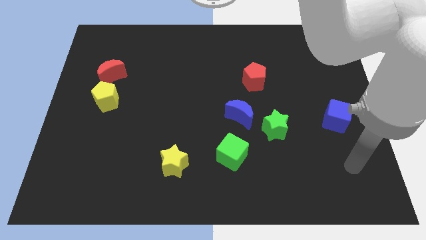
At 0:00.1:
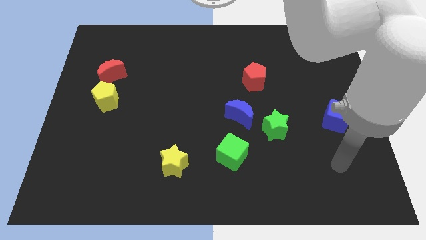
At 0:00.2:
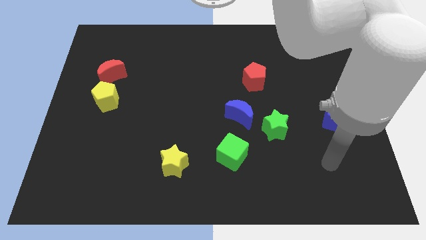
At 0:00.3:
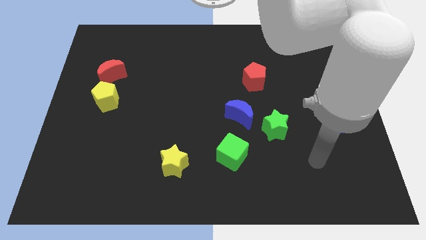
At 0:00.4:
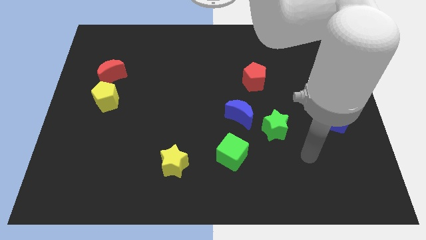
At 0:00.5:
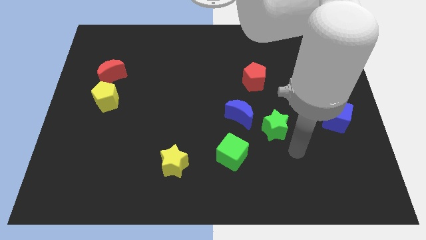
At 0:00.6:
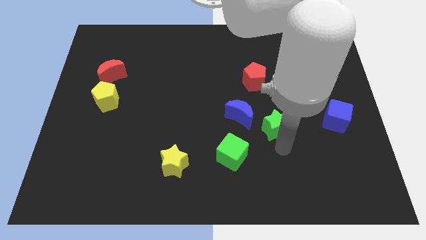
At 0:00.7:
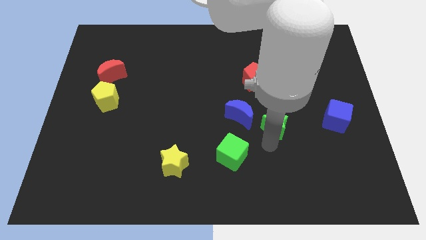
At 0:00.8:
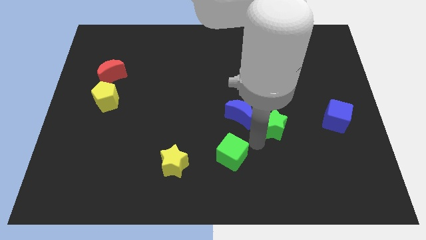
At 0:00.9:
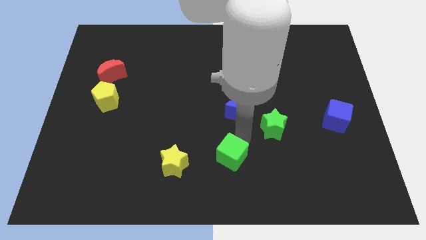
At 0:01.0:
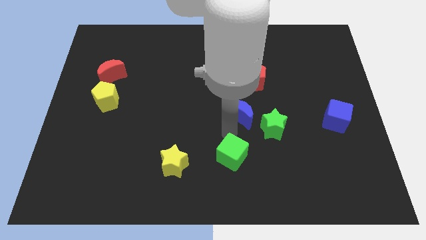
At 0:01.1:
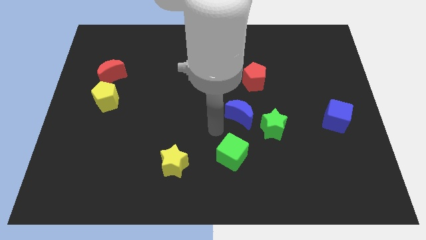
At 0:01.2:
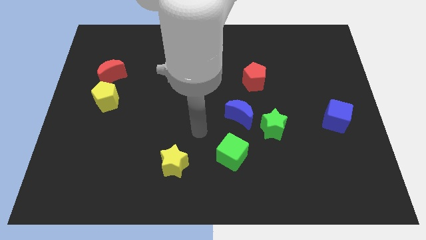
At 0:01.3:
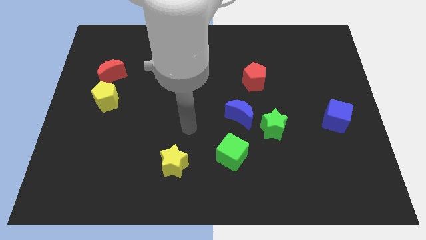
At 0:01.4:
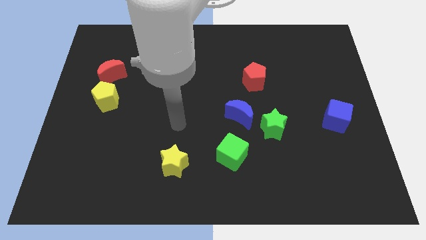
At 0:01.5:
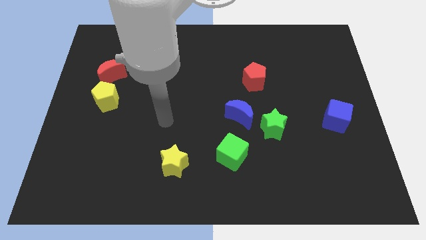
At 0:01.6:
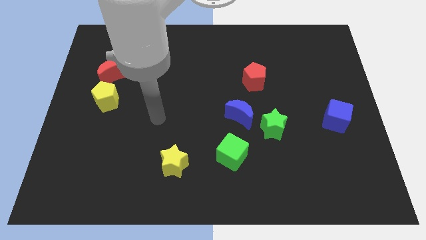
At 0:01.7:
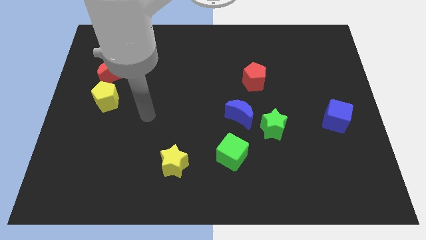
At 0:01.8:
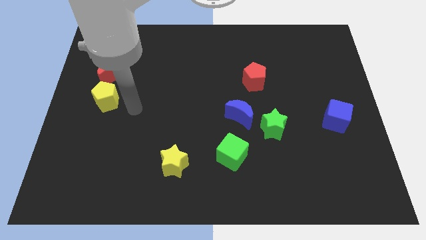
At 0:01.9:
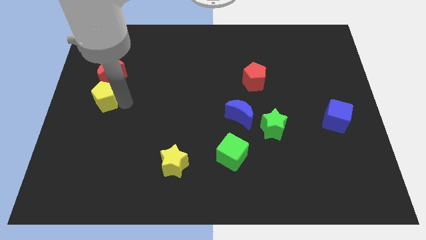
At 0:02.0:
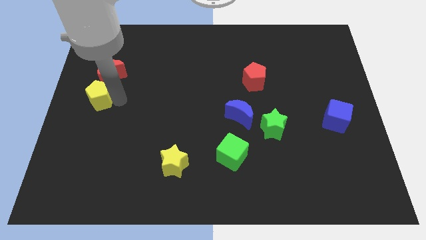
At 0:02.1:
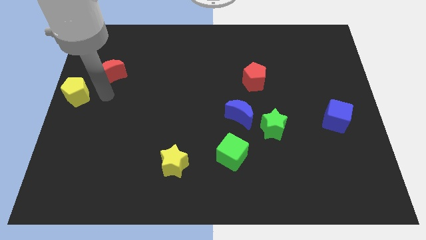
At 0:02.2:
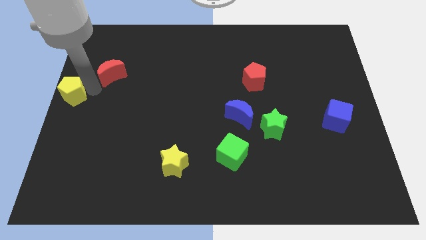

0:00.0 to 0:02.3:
pull the red moon apart from the yellow pentagon

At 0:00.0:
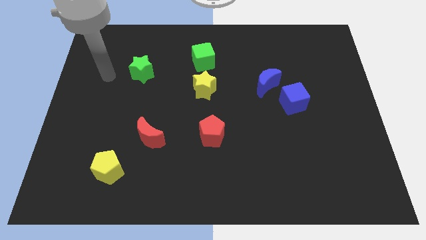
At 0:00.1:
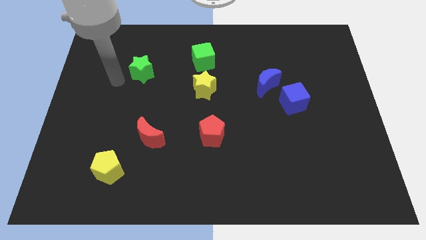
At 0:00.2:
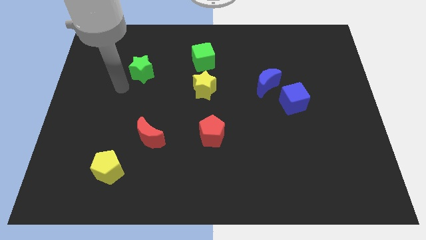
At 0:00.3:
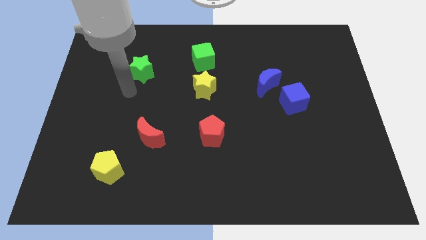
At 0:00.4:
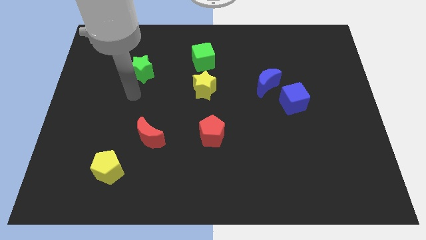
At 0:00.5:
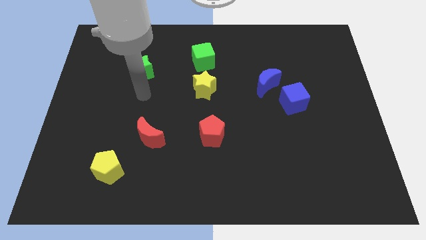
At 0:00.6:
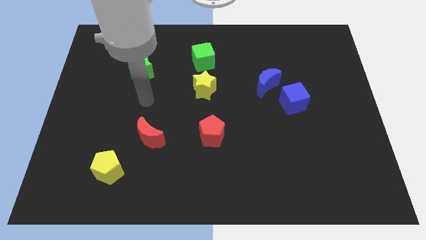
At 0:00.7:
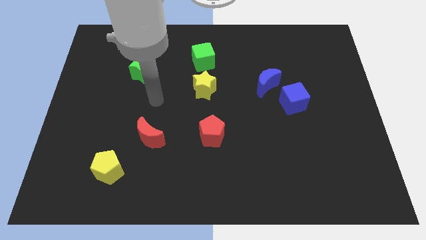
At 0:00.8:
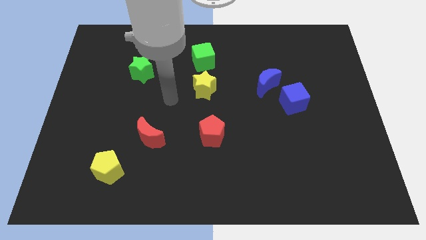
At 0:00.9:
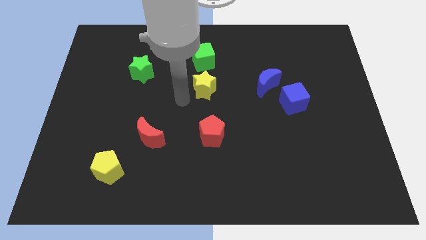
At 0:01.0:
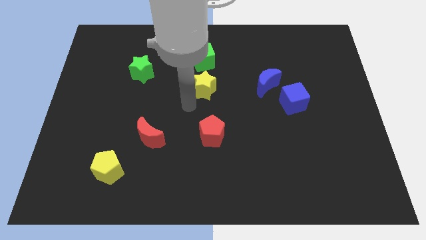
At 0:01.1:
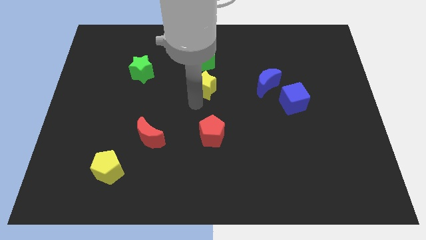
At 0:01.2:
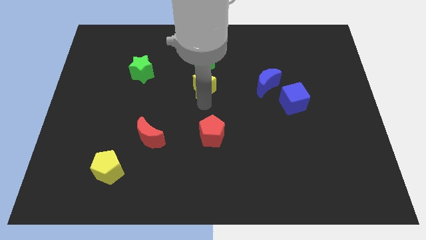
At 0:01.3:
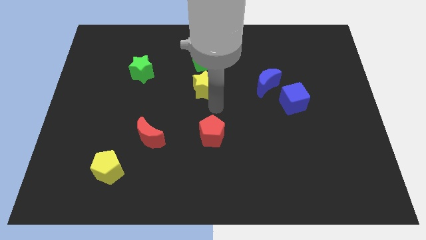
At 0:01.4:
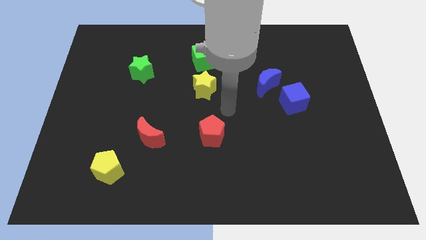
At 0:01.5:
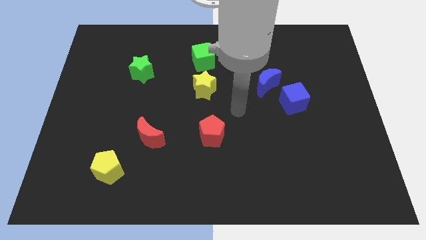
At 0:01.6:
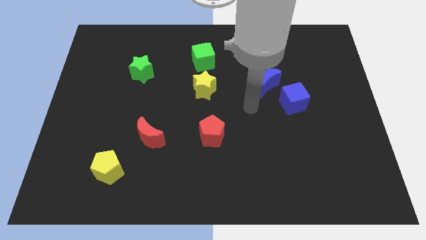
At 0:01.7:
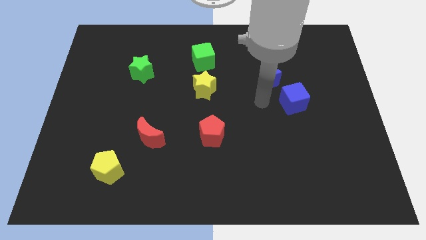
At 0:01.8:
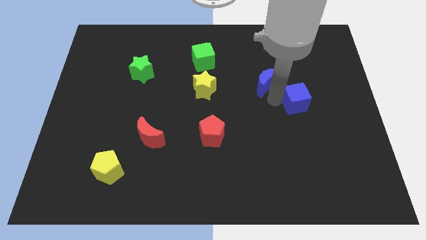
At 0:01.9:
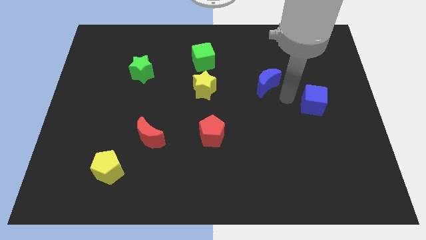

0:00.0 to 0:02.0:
separate the blue moon from the blue cube

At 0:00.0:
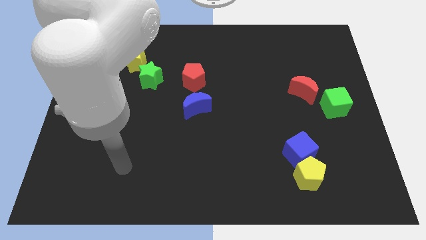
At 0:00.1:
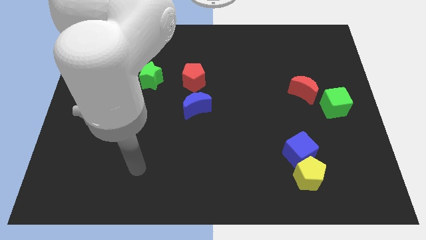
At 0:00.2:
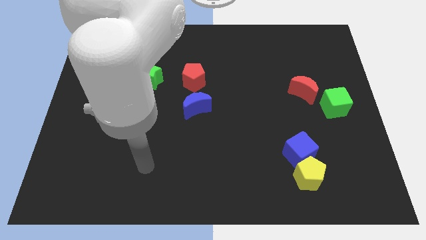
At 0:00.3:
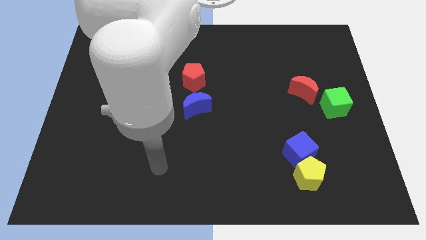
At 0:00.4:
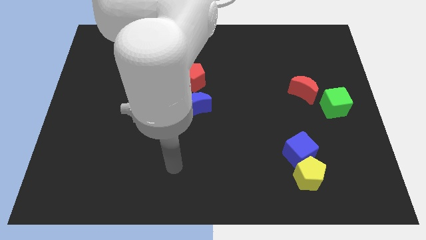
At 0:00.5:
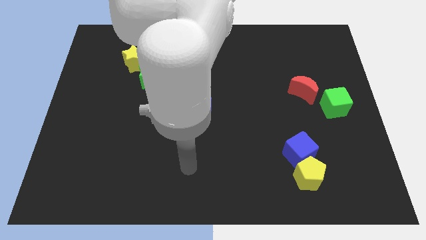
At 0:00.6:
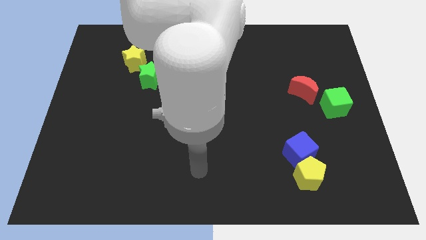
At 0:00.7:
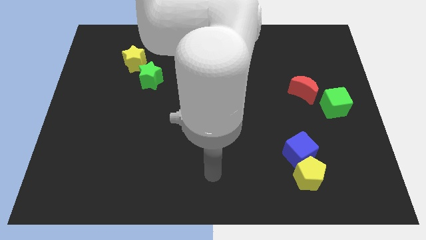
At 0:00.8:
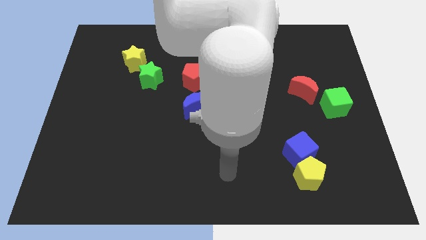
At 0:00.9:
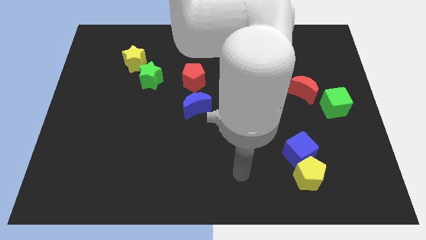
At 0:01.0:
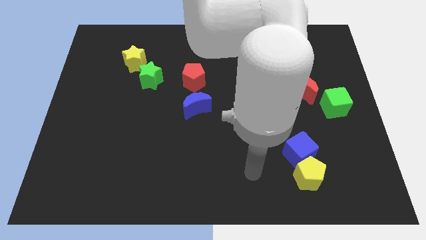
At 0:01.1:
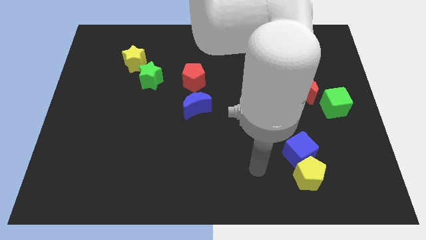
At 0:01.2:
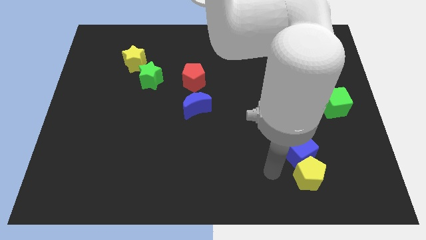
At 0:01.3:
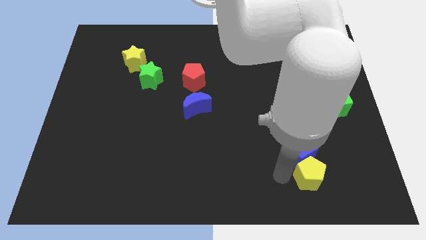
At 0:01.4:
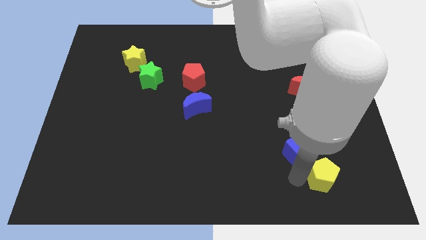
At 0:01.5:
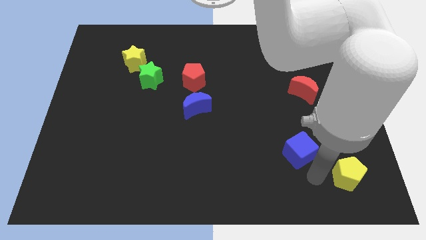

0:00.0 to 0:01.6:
pull the blue cube apart from the yellow pentagon

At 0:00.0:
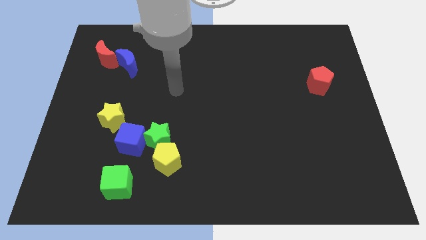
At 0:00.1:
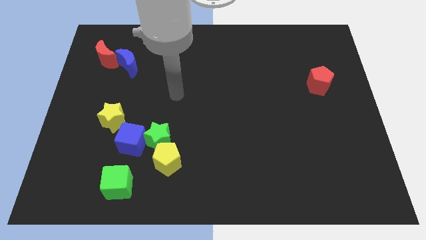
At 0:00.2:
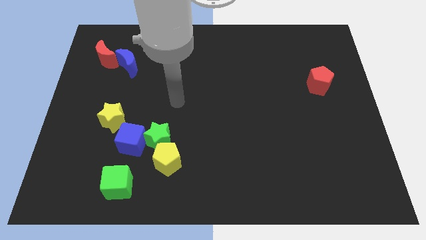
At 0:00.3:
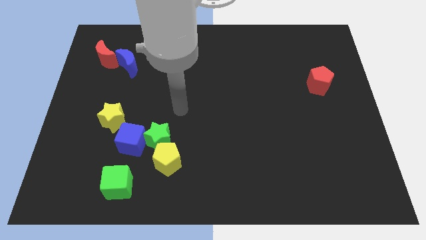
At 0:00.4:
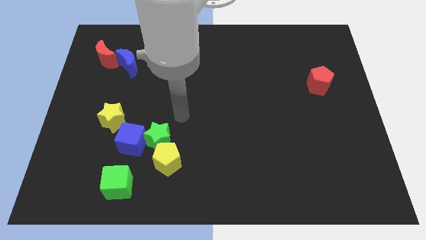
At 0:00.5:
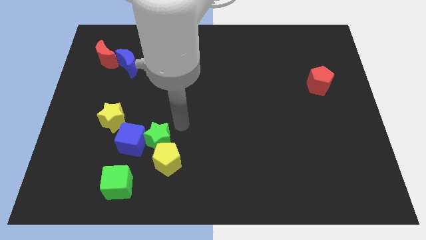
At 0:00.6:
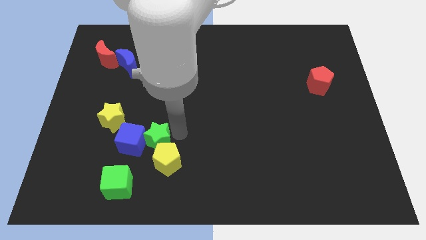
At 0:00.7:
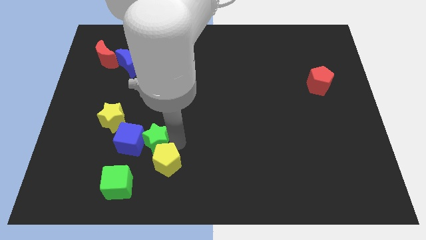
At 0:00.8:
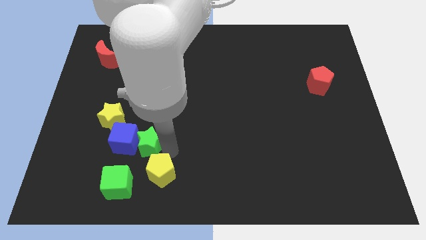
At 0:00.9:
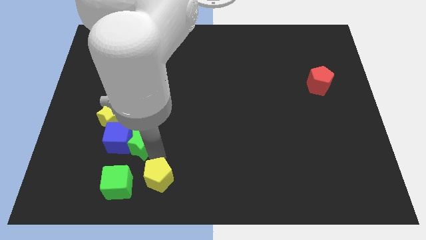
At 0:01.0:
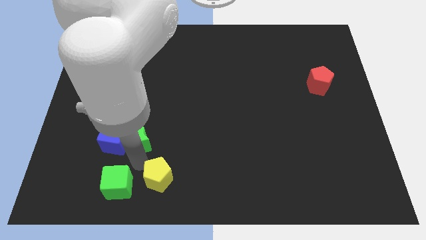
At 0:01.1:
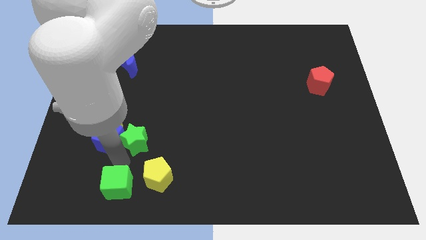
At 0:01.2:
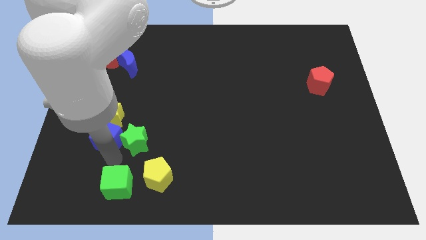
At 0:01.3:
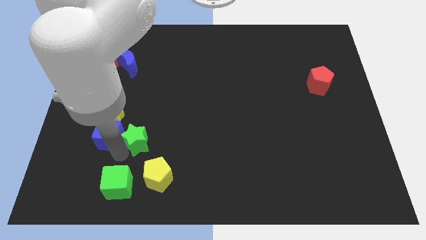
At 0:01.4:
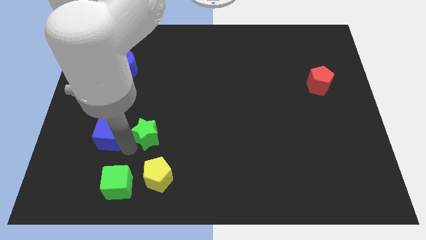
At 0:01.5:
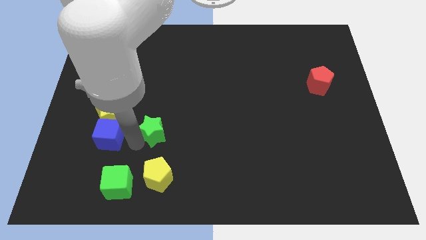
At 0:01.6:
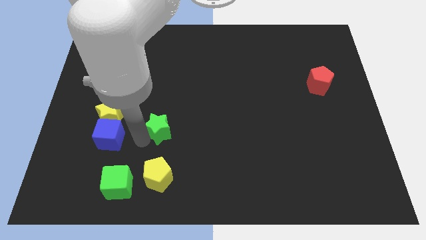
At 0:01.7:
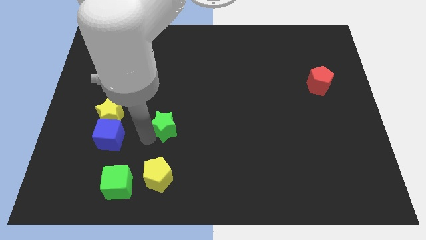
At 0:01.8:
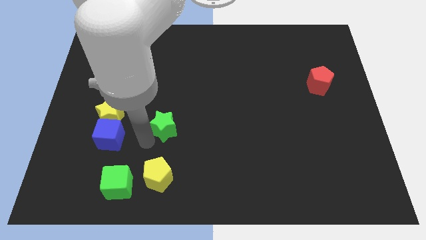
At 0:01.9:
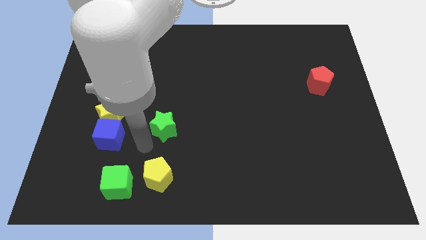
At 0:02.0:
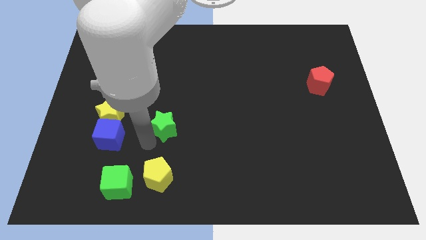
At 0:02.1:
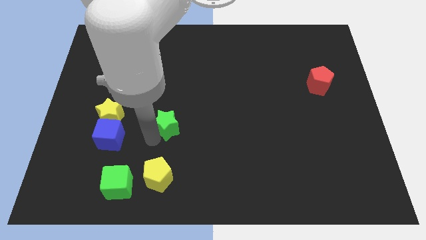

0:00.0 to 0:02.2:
move the green star away from the blue cube and yellow pentagon

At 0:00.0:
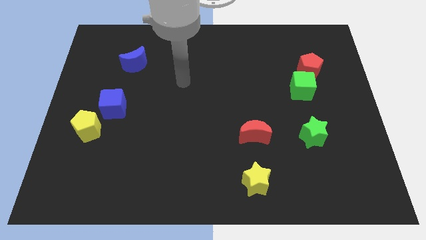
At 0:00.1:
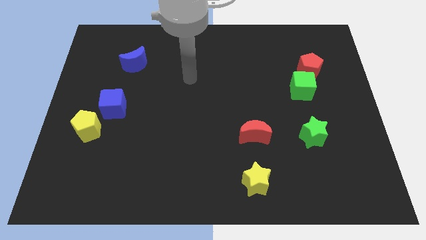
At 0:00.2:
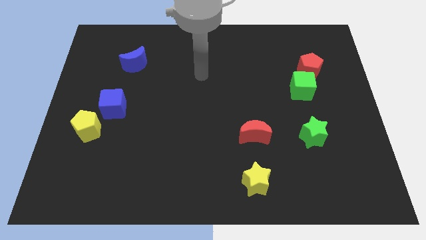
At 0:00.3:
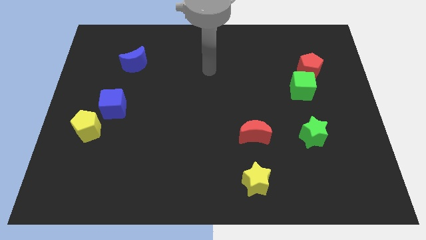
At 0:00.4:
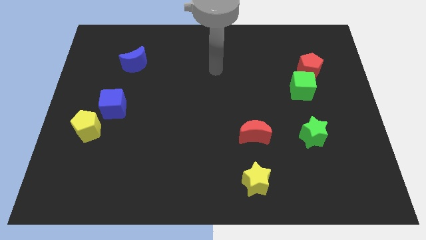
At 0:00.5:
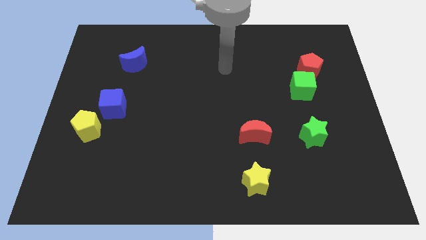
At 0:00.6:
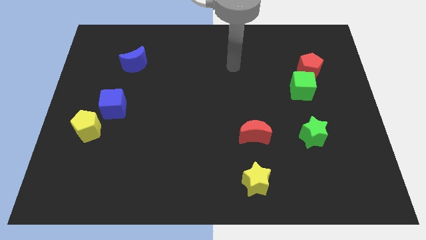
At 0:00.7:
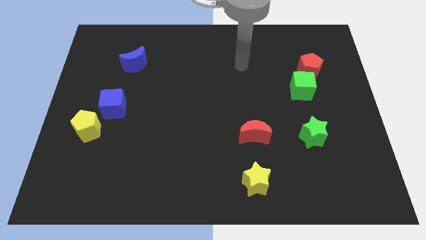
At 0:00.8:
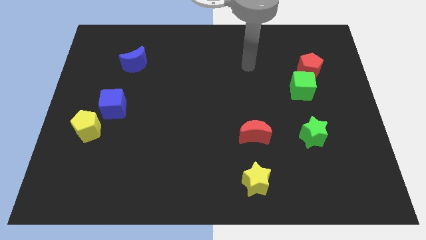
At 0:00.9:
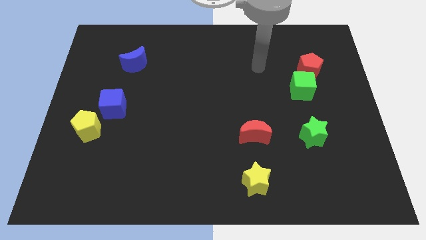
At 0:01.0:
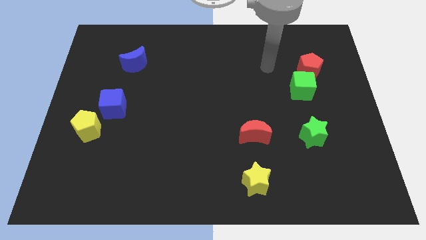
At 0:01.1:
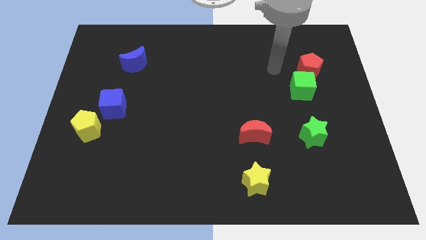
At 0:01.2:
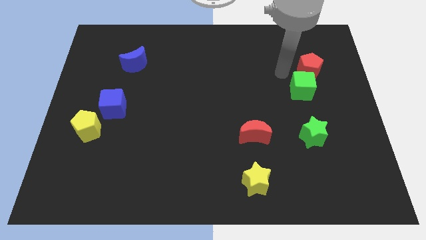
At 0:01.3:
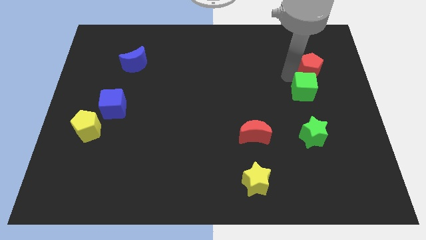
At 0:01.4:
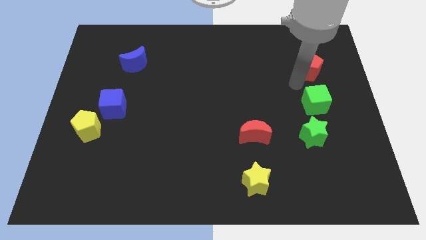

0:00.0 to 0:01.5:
separate the red pentagon from the green cube
